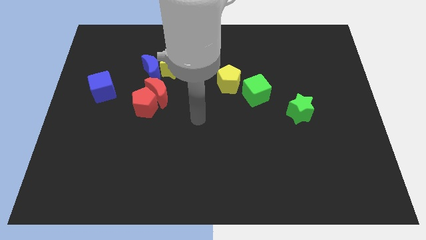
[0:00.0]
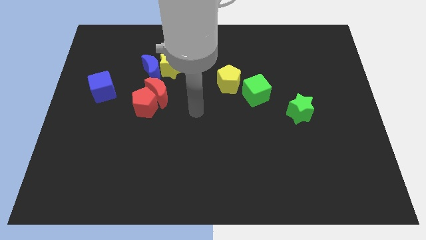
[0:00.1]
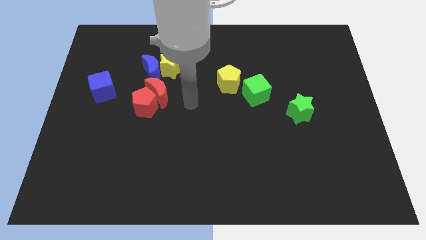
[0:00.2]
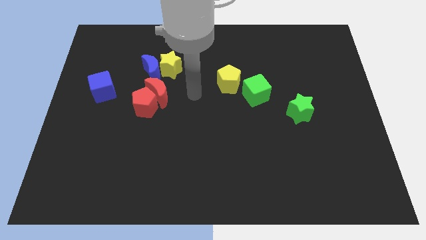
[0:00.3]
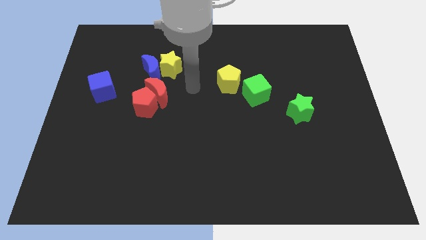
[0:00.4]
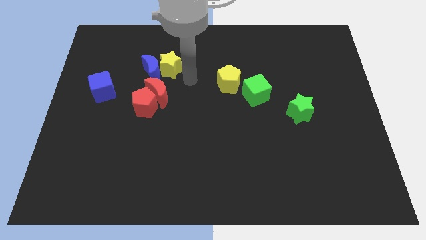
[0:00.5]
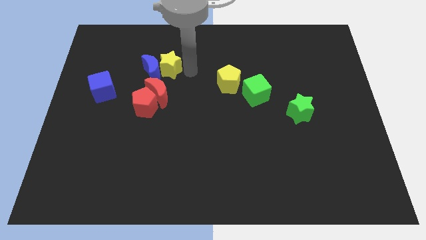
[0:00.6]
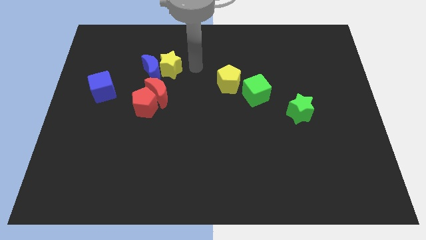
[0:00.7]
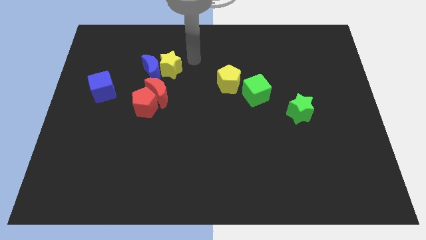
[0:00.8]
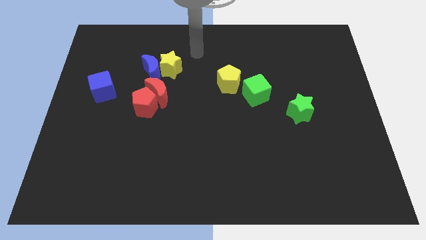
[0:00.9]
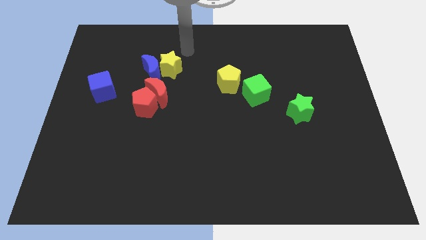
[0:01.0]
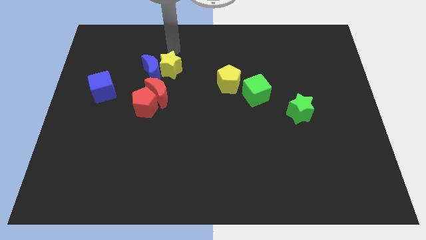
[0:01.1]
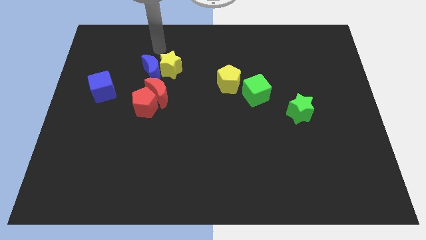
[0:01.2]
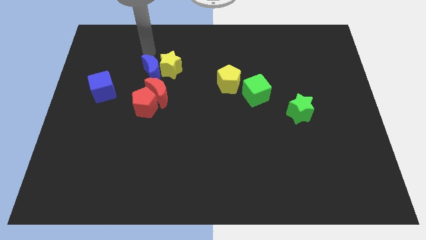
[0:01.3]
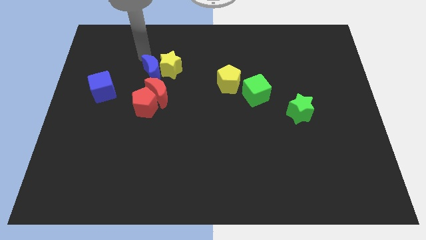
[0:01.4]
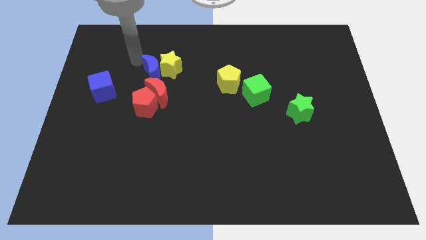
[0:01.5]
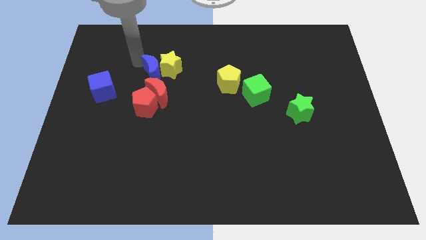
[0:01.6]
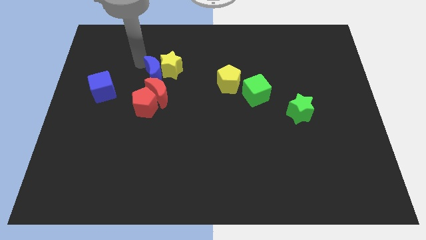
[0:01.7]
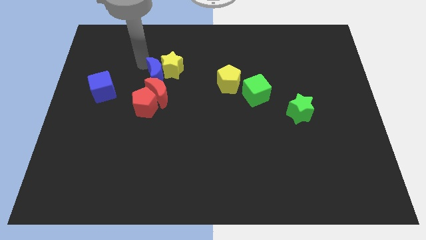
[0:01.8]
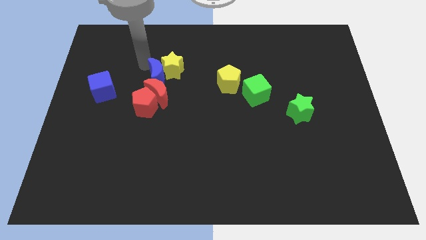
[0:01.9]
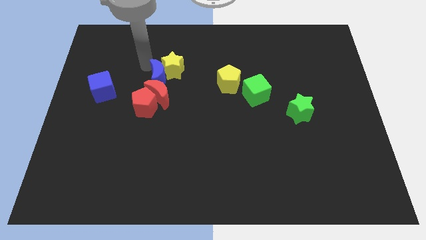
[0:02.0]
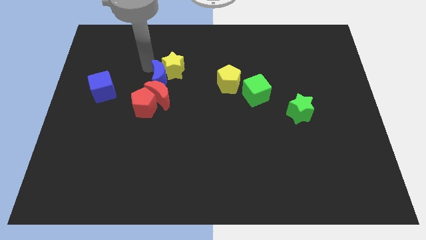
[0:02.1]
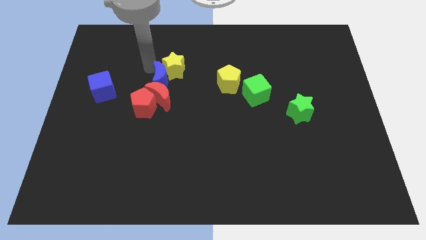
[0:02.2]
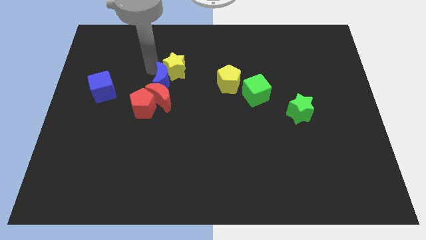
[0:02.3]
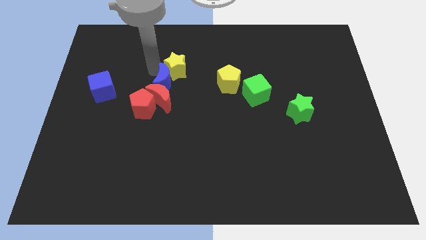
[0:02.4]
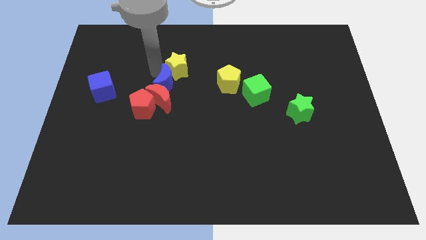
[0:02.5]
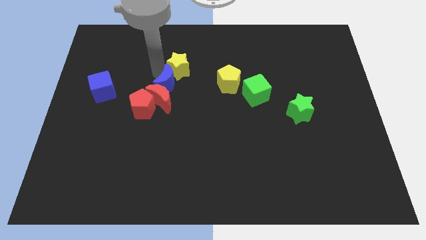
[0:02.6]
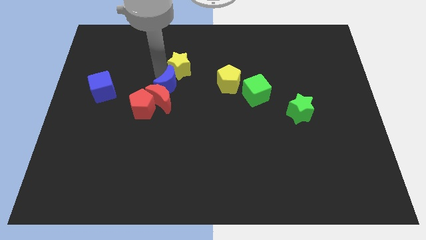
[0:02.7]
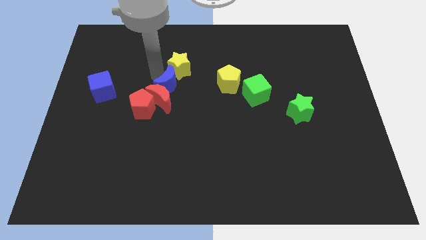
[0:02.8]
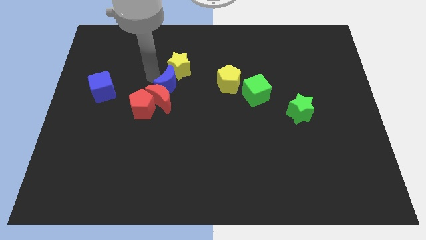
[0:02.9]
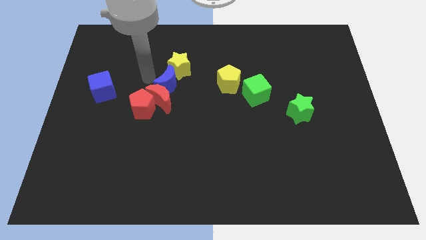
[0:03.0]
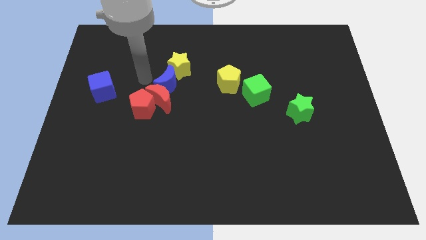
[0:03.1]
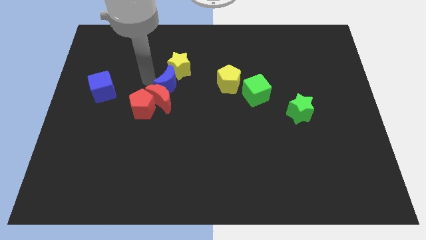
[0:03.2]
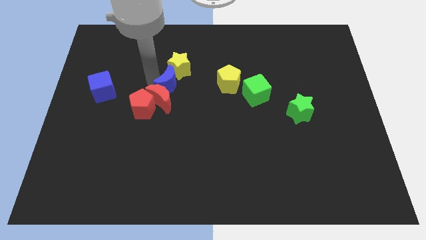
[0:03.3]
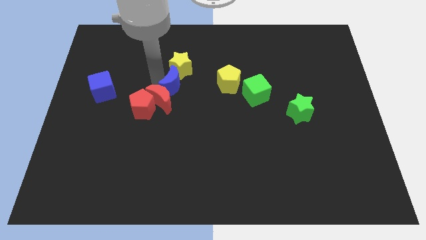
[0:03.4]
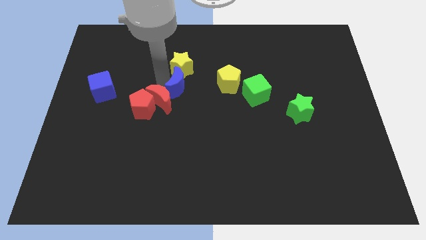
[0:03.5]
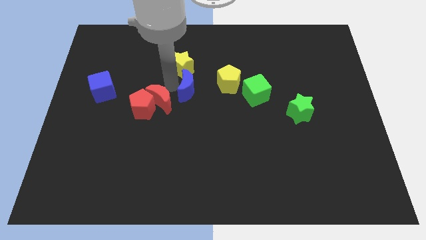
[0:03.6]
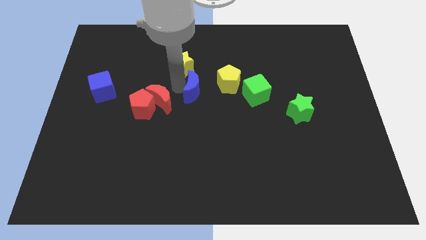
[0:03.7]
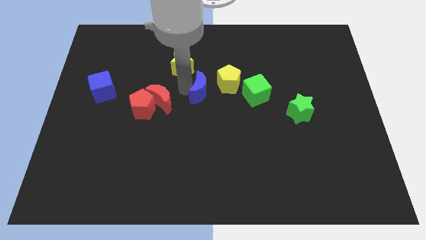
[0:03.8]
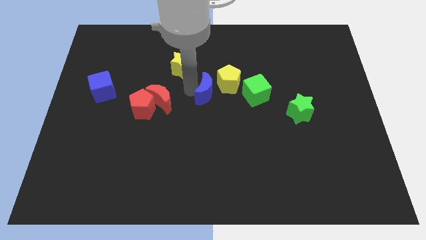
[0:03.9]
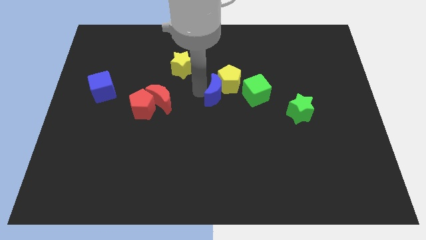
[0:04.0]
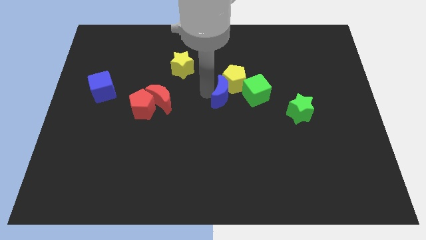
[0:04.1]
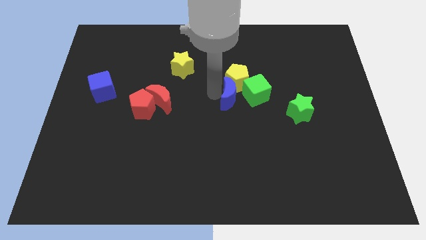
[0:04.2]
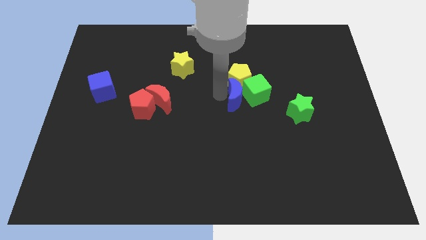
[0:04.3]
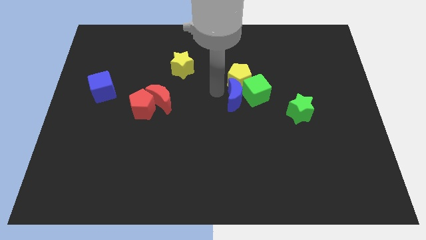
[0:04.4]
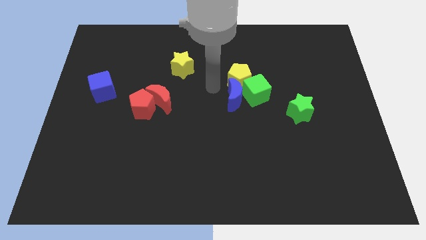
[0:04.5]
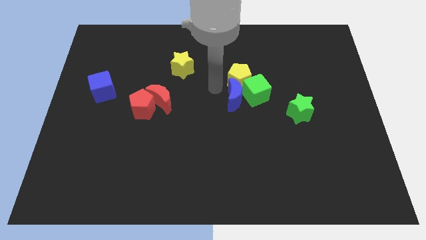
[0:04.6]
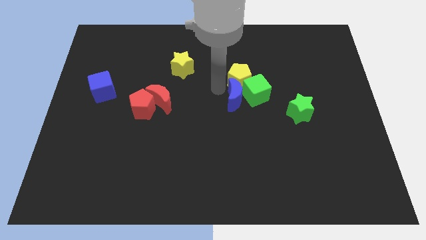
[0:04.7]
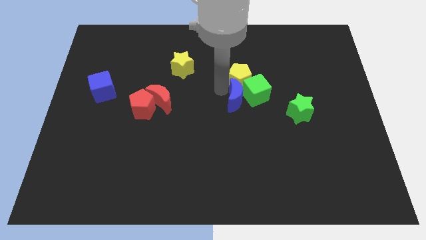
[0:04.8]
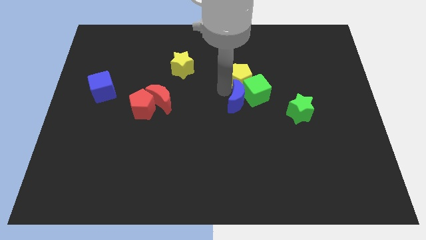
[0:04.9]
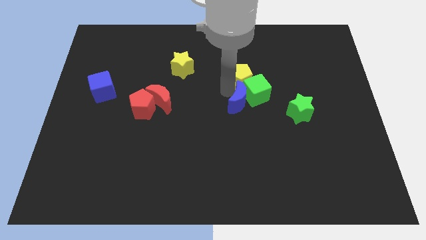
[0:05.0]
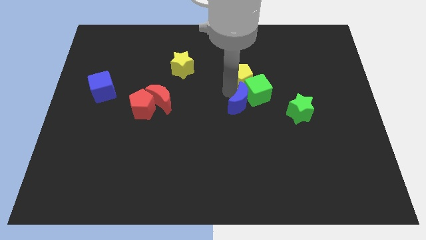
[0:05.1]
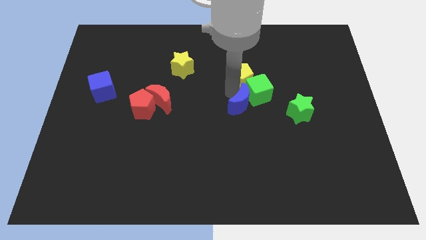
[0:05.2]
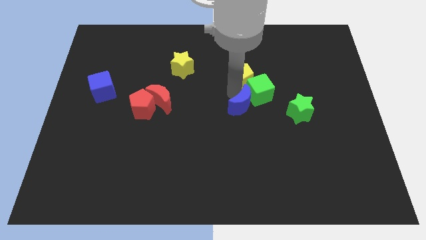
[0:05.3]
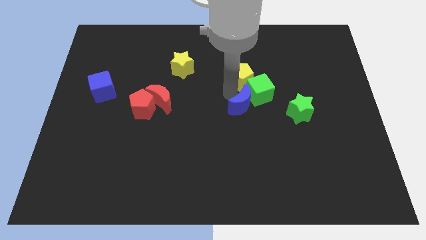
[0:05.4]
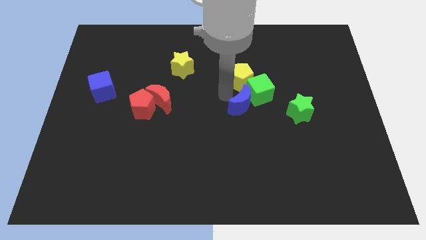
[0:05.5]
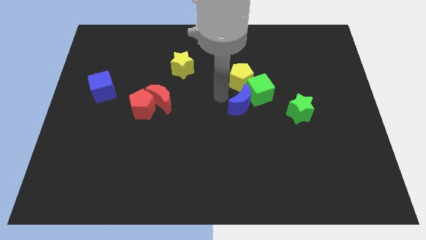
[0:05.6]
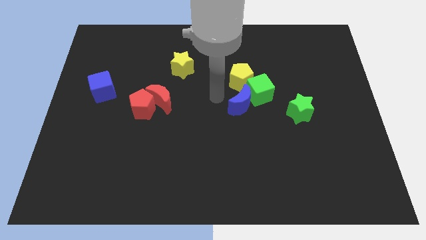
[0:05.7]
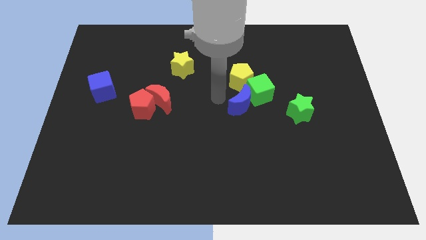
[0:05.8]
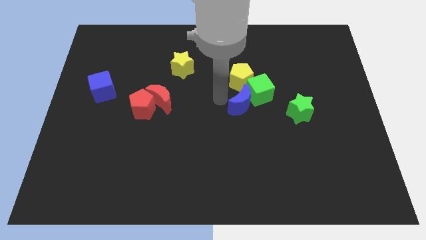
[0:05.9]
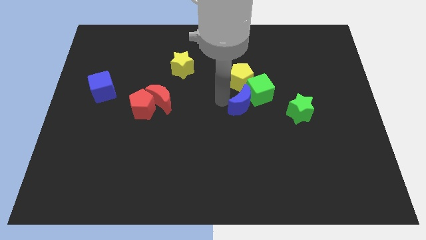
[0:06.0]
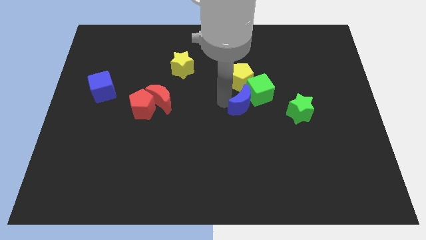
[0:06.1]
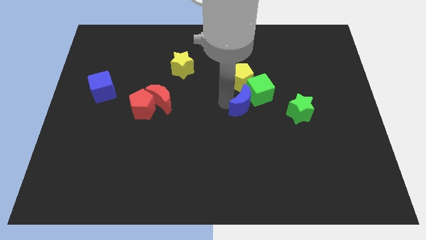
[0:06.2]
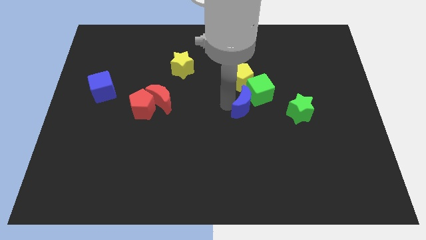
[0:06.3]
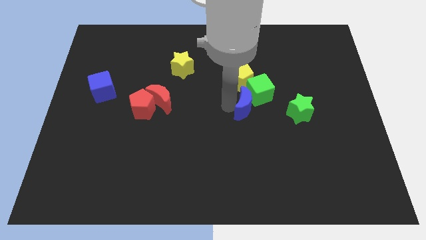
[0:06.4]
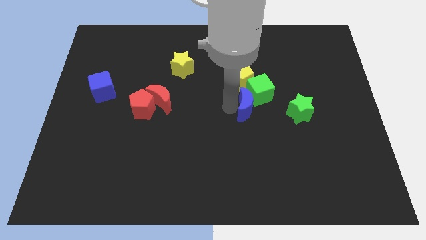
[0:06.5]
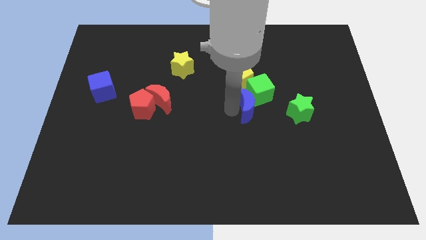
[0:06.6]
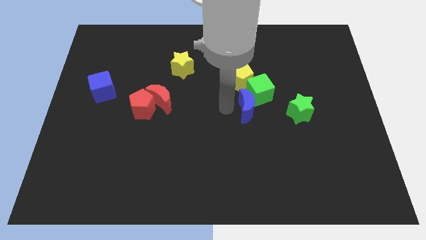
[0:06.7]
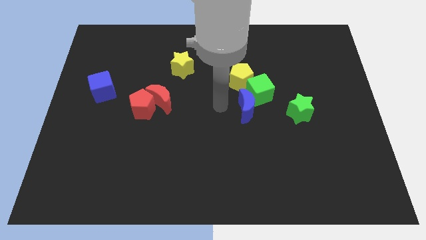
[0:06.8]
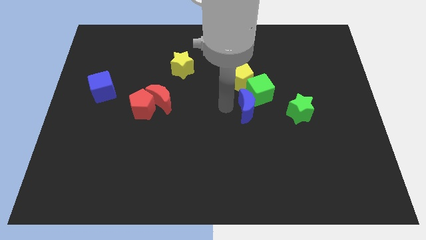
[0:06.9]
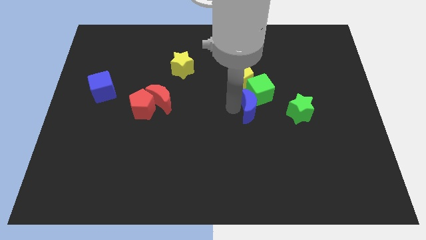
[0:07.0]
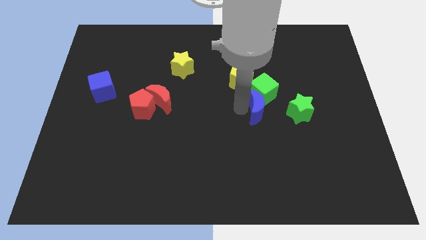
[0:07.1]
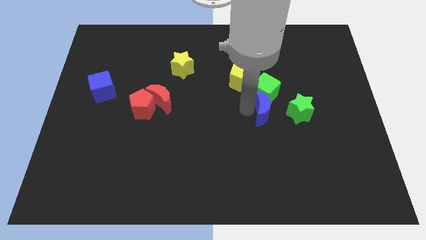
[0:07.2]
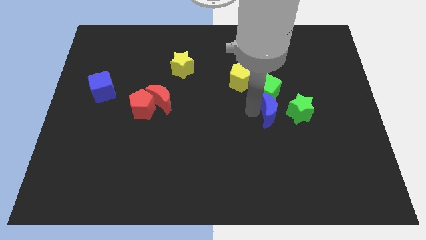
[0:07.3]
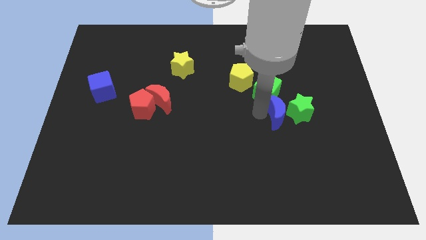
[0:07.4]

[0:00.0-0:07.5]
move the blue moon to the green star

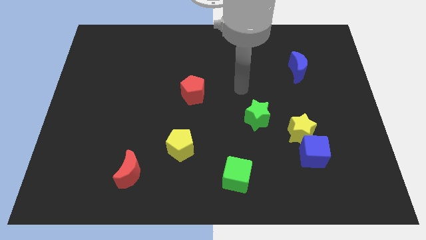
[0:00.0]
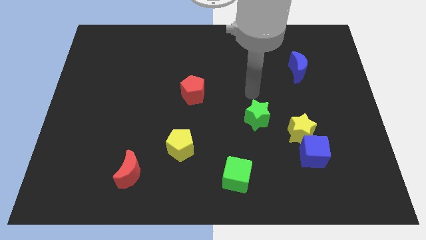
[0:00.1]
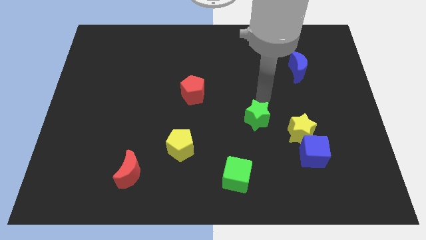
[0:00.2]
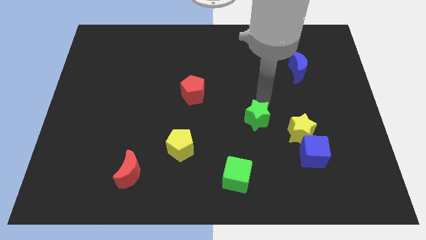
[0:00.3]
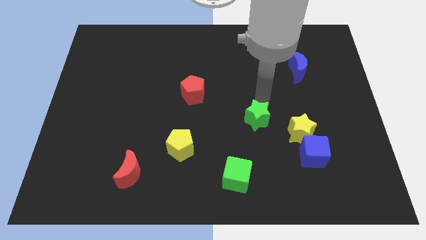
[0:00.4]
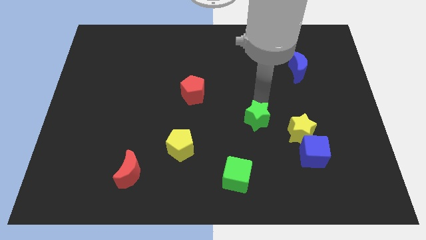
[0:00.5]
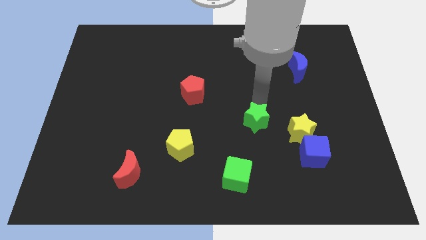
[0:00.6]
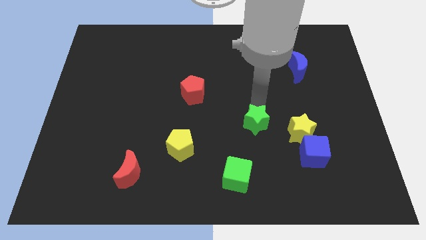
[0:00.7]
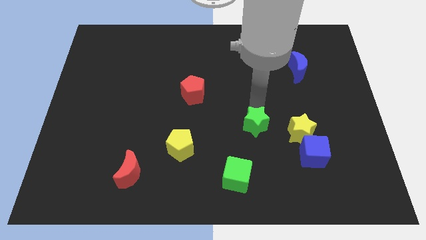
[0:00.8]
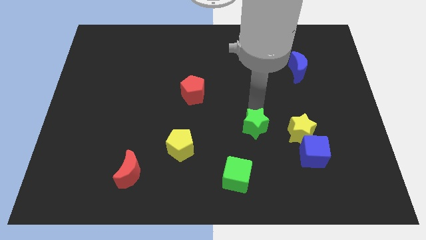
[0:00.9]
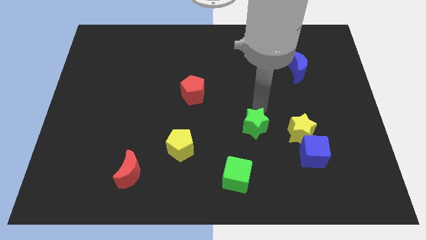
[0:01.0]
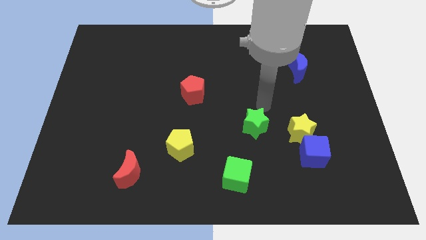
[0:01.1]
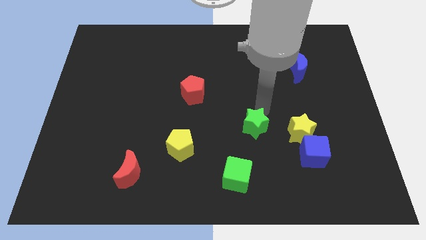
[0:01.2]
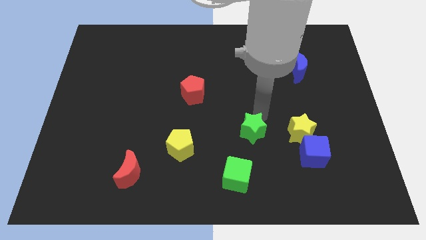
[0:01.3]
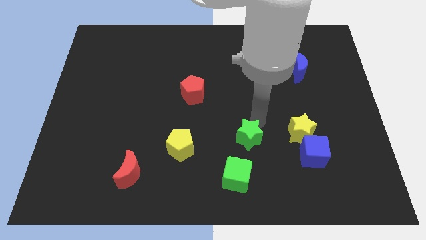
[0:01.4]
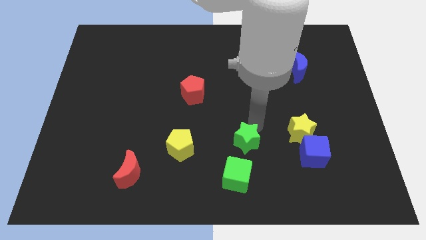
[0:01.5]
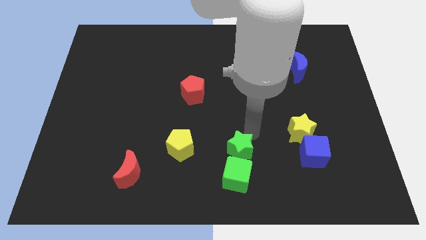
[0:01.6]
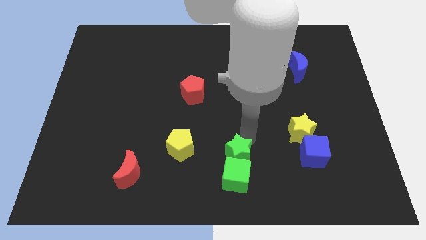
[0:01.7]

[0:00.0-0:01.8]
put the green star to the green cube
